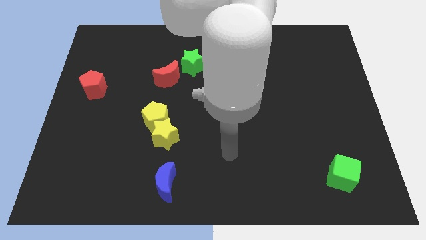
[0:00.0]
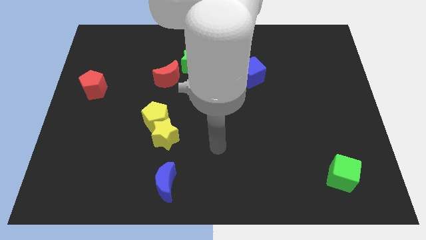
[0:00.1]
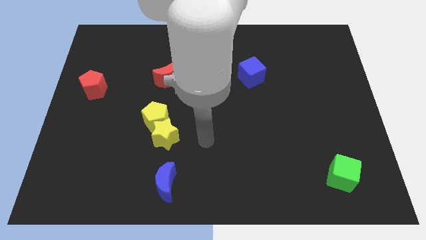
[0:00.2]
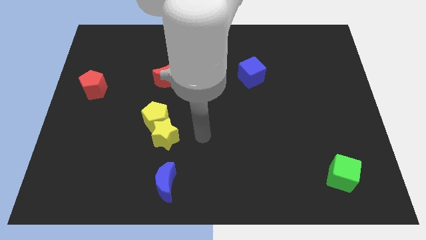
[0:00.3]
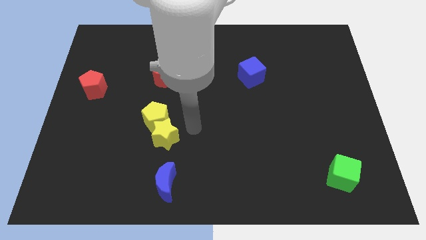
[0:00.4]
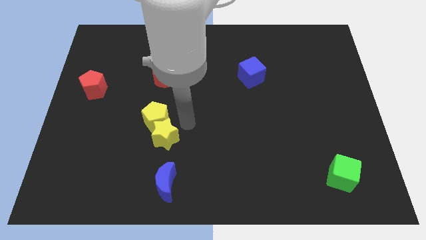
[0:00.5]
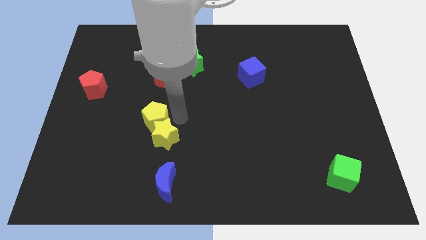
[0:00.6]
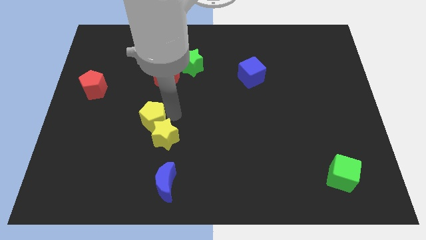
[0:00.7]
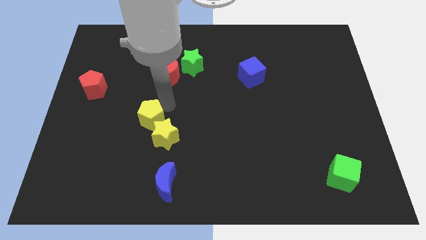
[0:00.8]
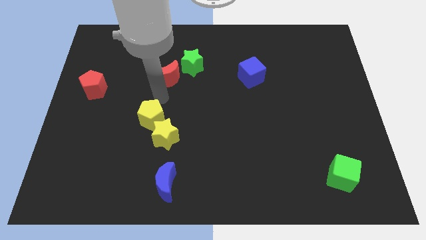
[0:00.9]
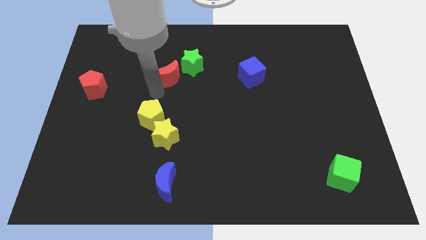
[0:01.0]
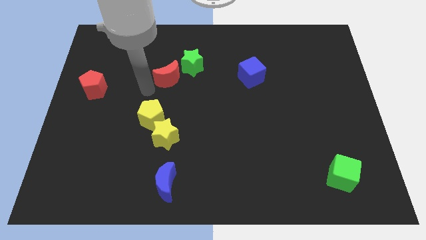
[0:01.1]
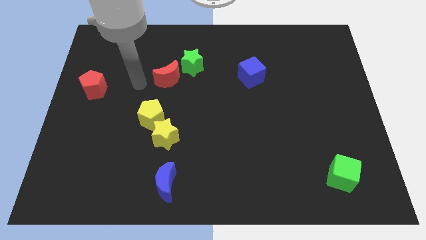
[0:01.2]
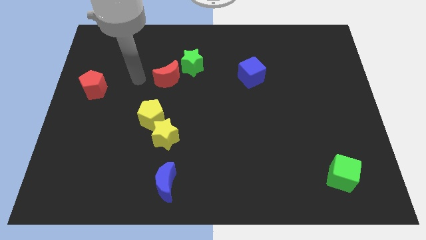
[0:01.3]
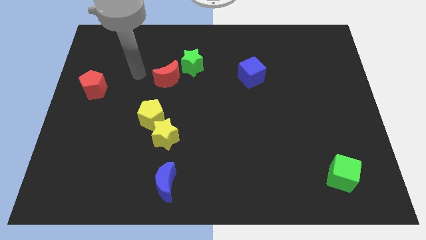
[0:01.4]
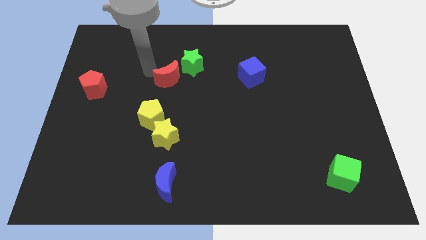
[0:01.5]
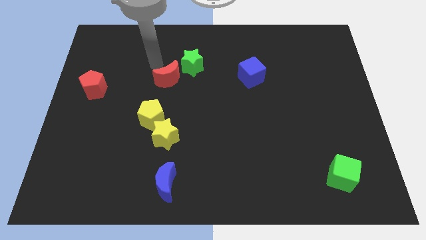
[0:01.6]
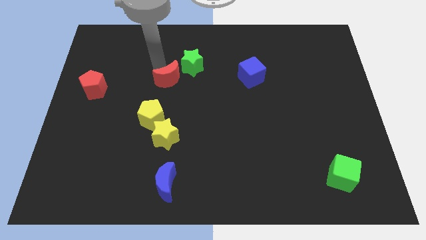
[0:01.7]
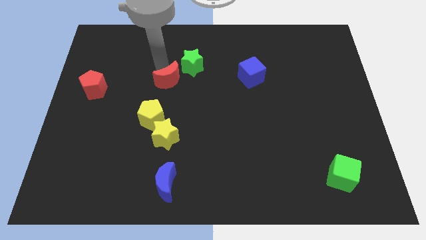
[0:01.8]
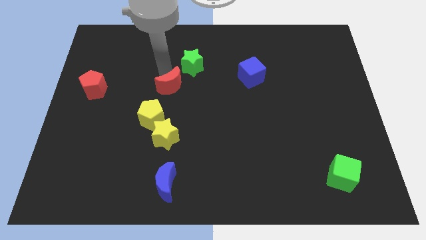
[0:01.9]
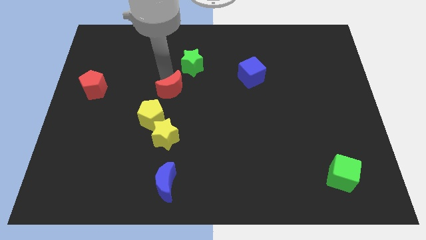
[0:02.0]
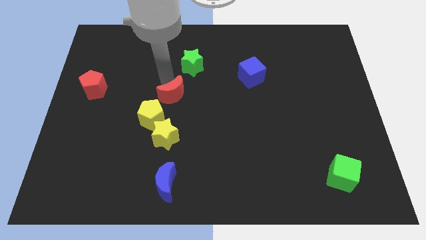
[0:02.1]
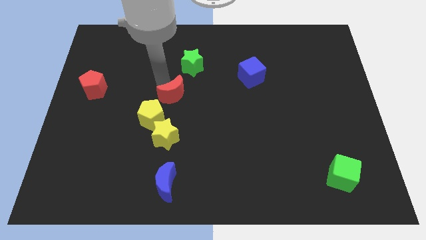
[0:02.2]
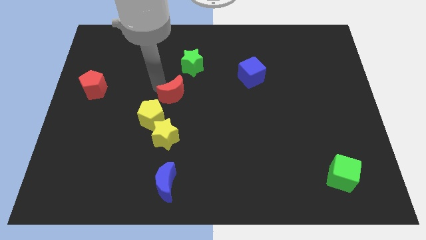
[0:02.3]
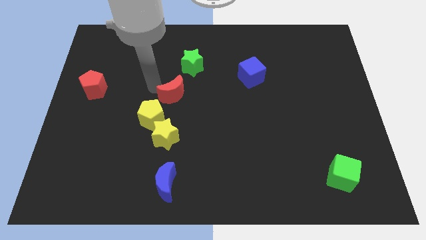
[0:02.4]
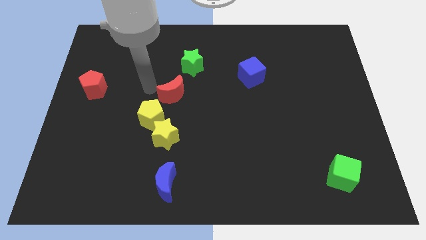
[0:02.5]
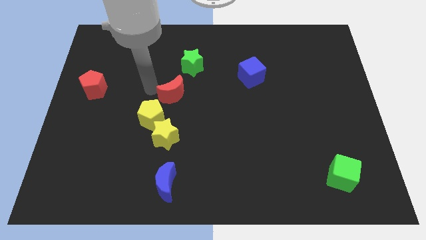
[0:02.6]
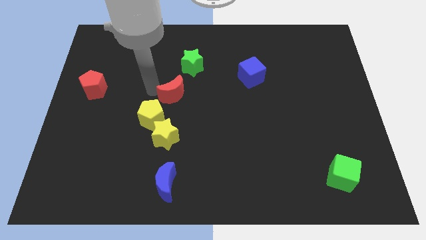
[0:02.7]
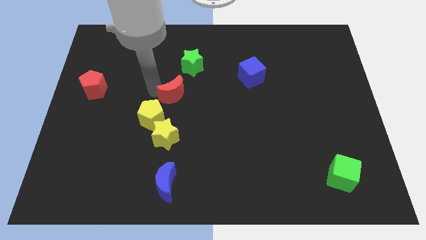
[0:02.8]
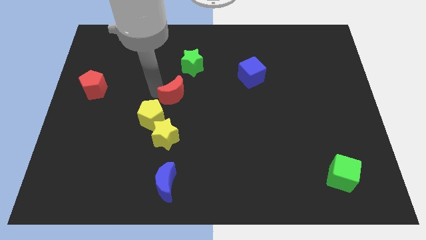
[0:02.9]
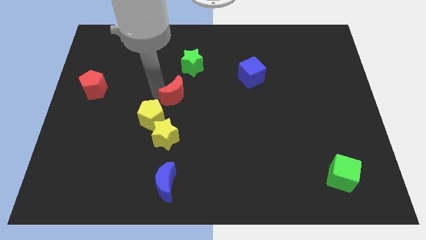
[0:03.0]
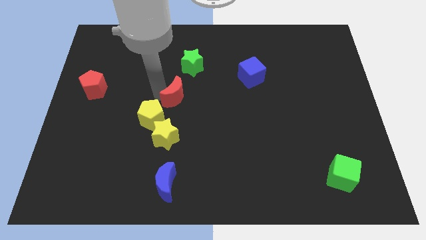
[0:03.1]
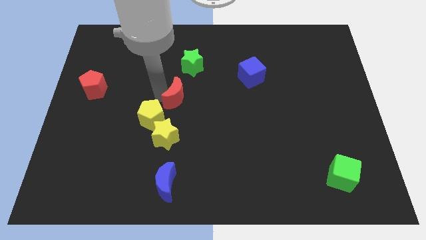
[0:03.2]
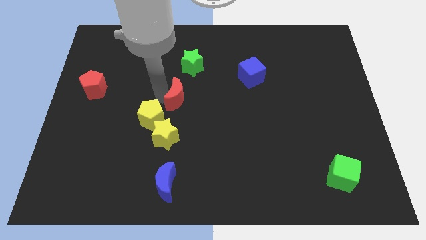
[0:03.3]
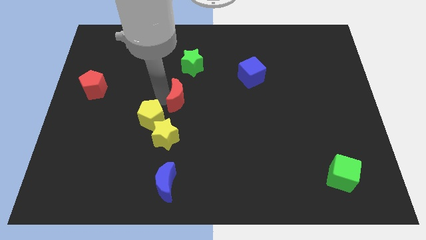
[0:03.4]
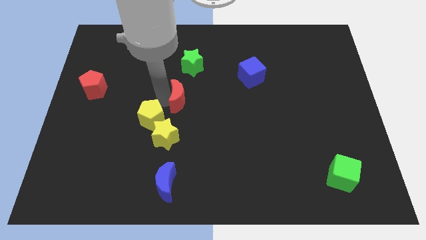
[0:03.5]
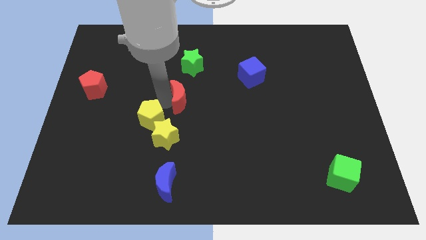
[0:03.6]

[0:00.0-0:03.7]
push the red moon a bit downwards and then right

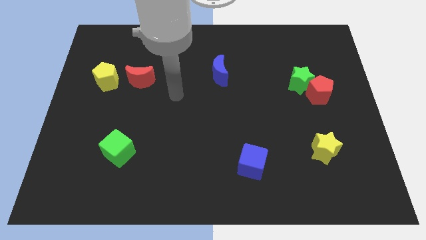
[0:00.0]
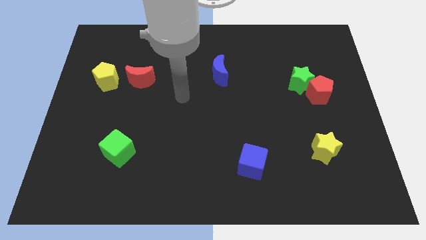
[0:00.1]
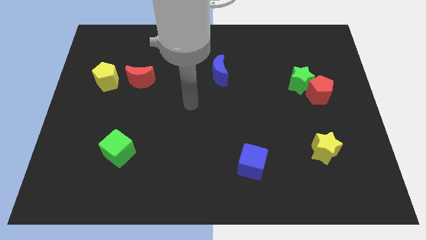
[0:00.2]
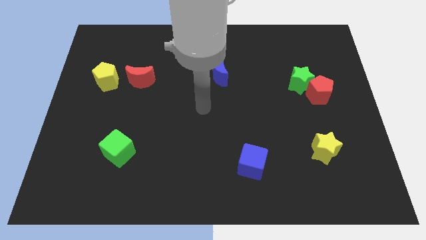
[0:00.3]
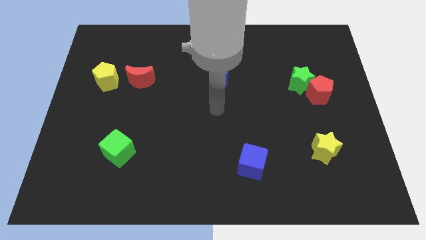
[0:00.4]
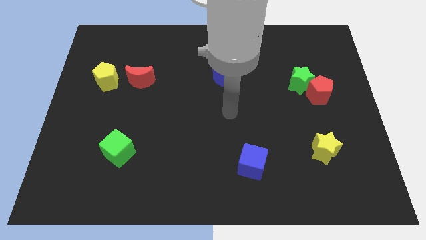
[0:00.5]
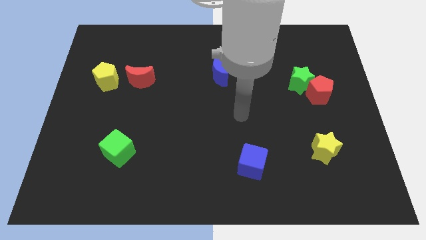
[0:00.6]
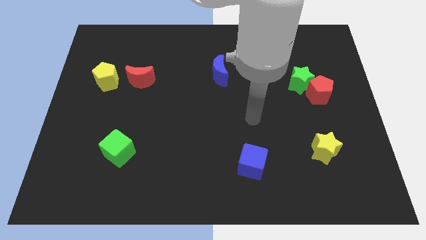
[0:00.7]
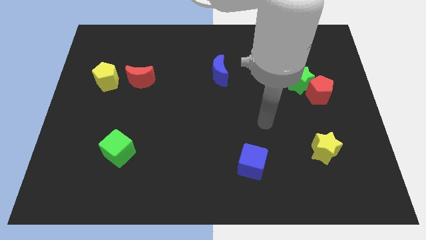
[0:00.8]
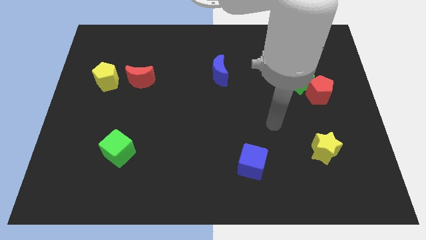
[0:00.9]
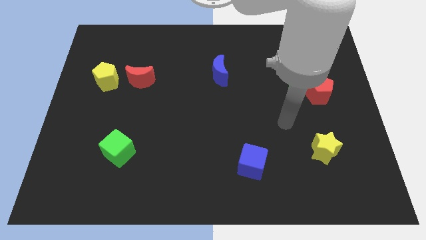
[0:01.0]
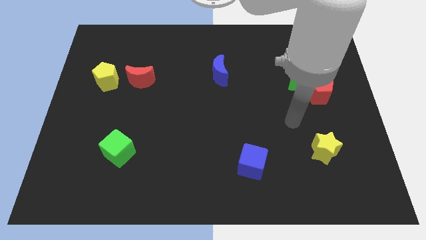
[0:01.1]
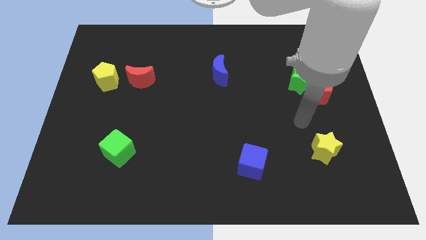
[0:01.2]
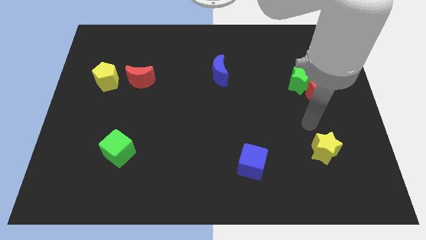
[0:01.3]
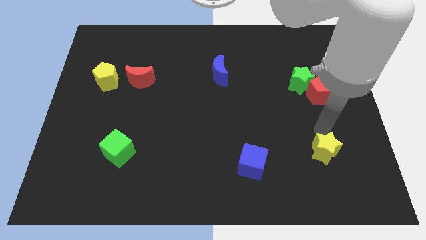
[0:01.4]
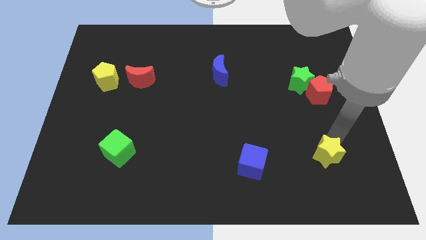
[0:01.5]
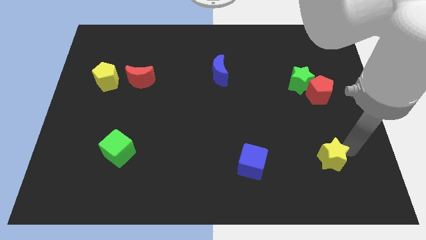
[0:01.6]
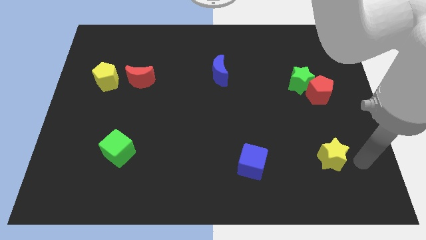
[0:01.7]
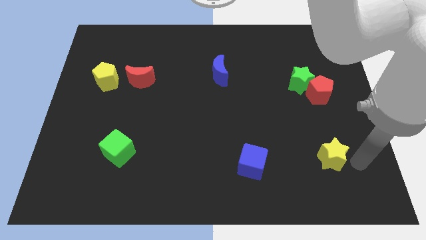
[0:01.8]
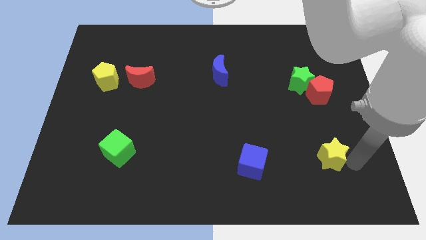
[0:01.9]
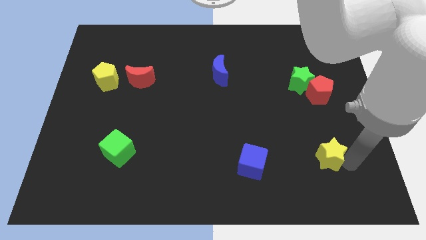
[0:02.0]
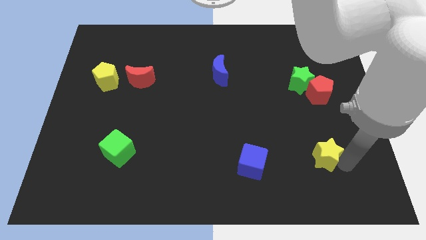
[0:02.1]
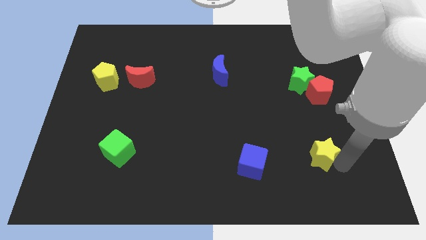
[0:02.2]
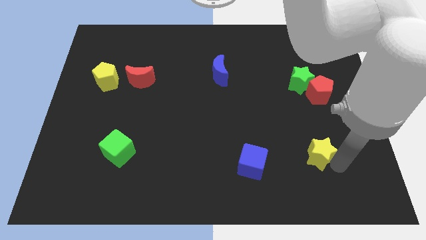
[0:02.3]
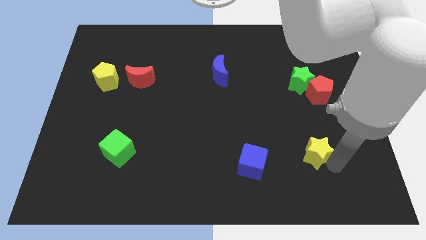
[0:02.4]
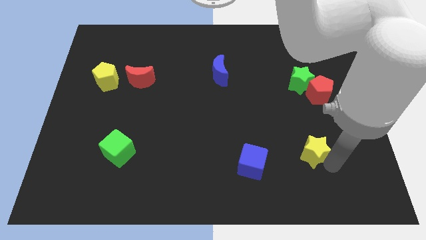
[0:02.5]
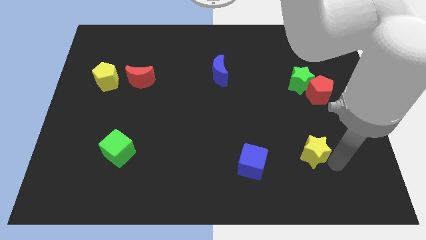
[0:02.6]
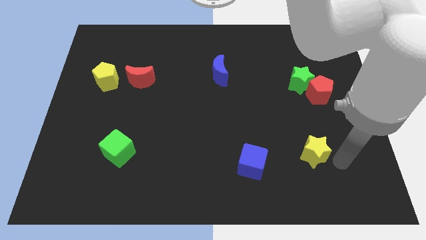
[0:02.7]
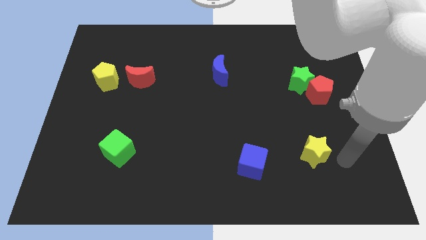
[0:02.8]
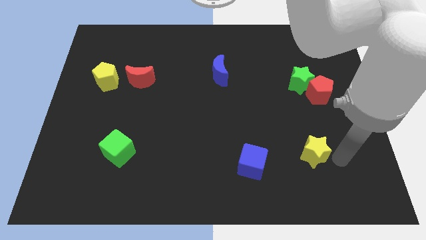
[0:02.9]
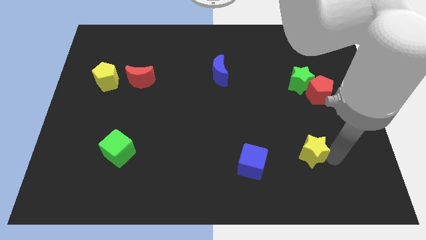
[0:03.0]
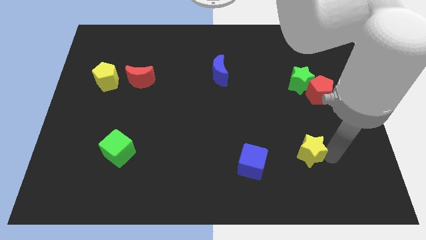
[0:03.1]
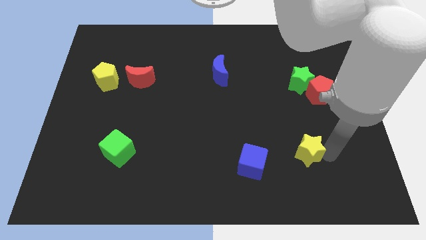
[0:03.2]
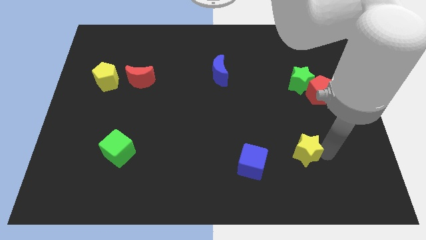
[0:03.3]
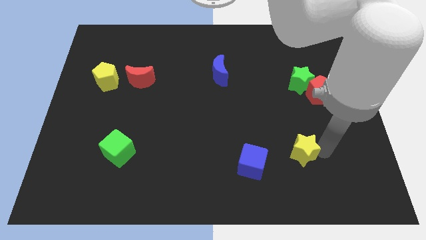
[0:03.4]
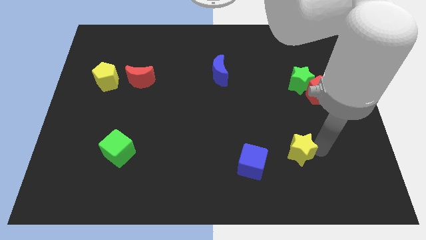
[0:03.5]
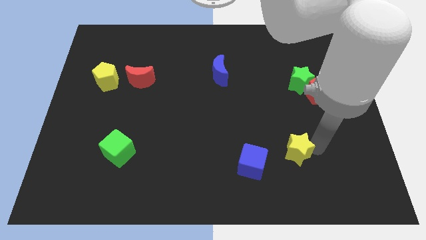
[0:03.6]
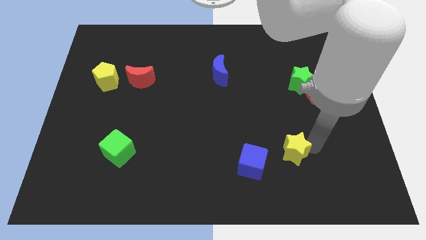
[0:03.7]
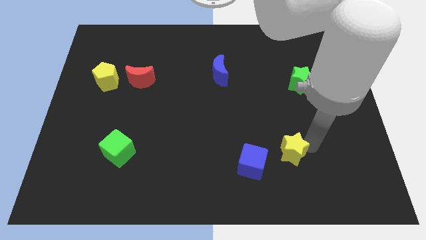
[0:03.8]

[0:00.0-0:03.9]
push the yellow star left somewhat
